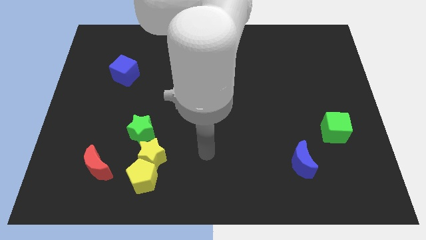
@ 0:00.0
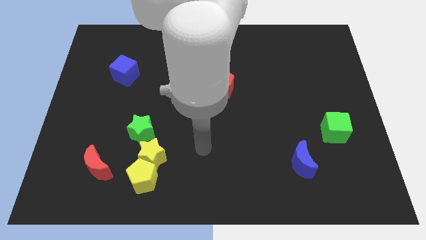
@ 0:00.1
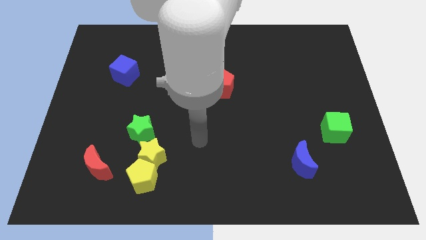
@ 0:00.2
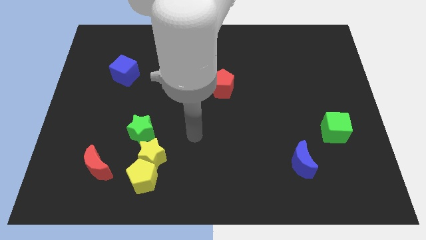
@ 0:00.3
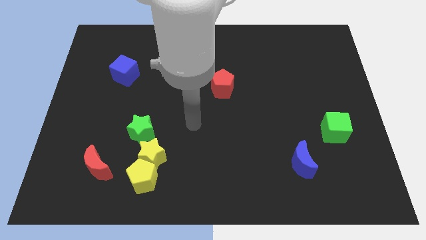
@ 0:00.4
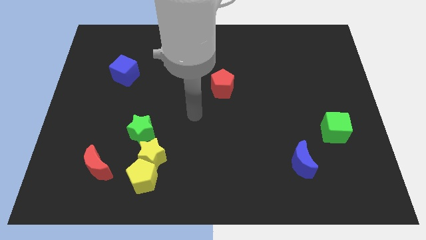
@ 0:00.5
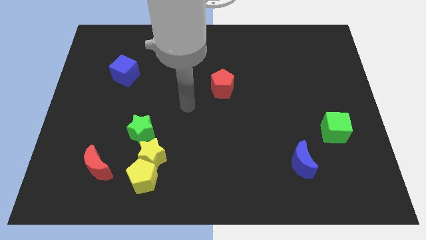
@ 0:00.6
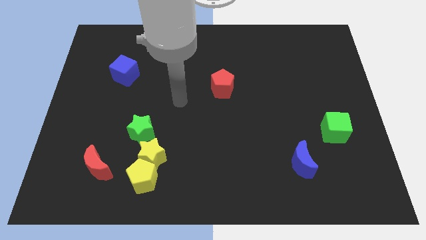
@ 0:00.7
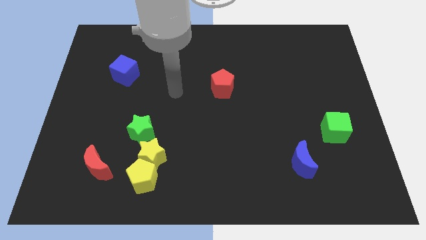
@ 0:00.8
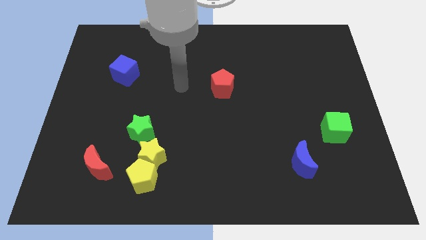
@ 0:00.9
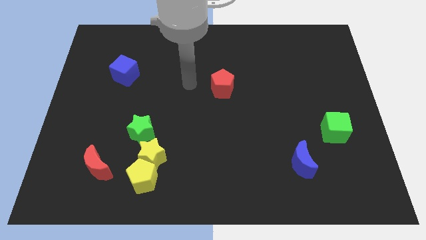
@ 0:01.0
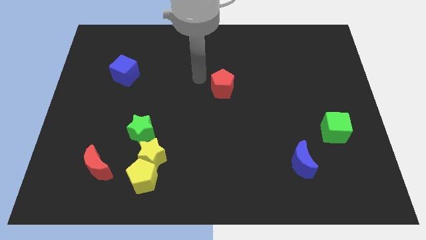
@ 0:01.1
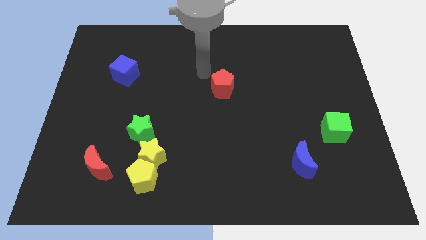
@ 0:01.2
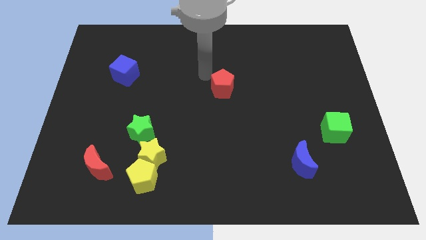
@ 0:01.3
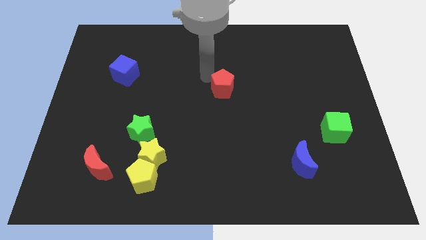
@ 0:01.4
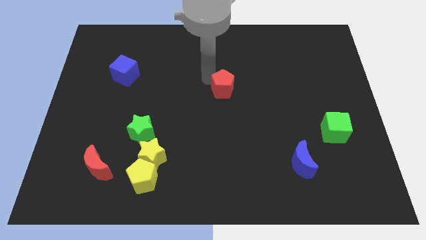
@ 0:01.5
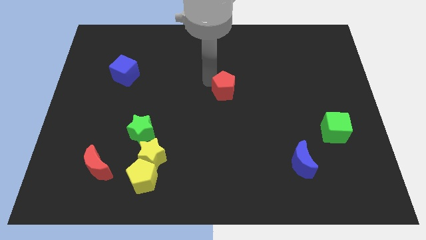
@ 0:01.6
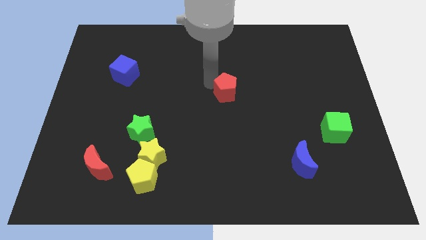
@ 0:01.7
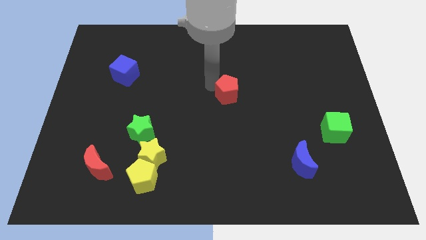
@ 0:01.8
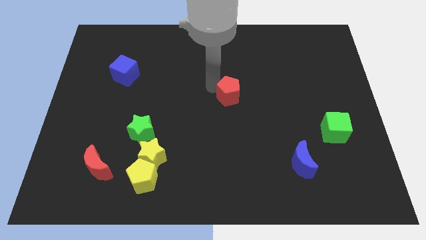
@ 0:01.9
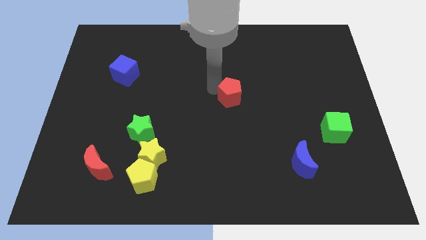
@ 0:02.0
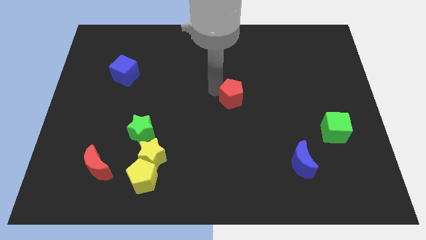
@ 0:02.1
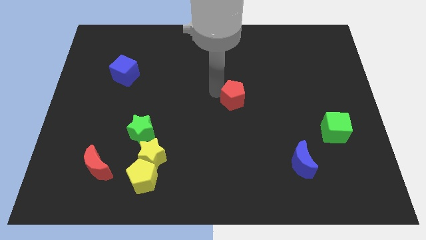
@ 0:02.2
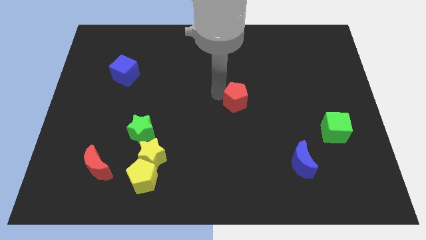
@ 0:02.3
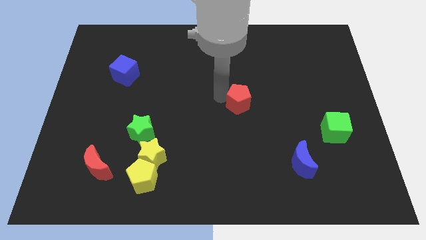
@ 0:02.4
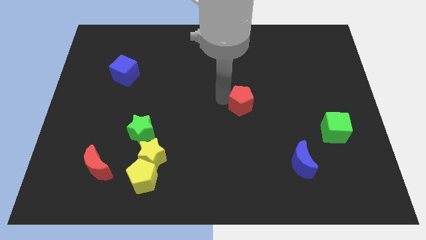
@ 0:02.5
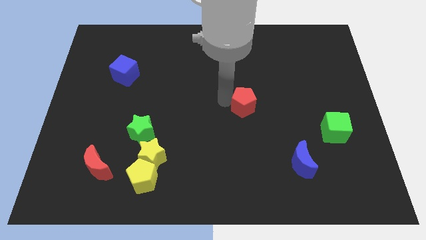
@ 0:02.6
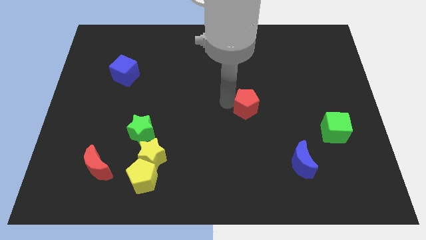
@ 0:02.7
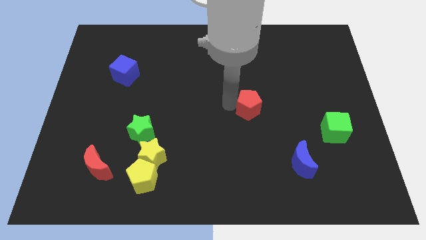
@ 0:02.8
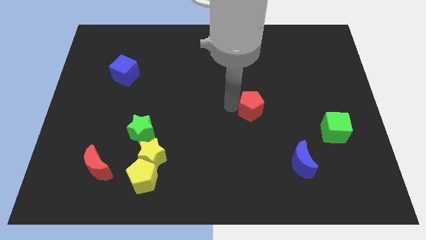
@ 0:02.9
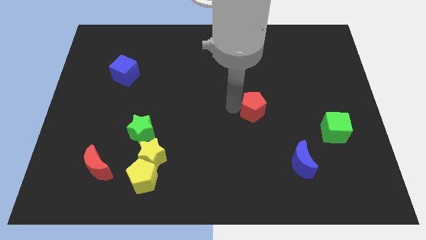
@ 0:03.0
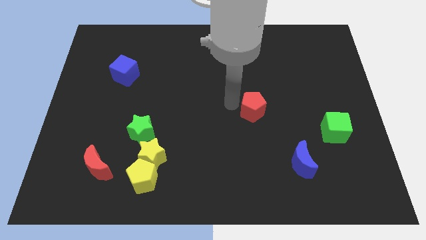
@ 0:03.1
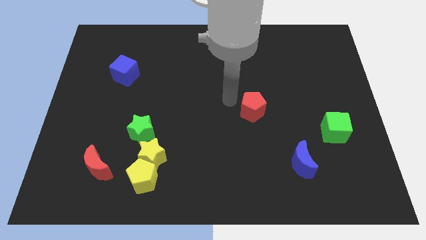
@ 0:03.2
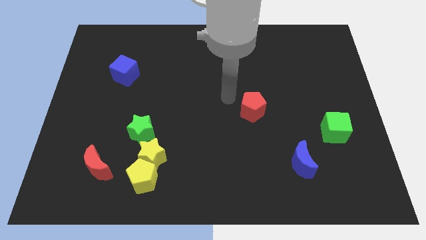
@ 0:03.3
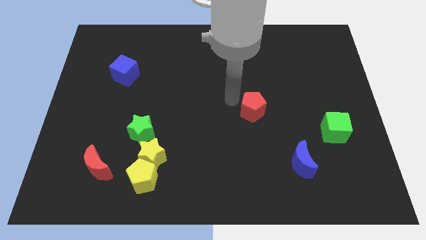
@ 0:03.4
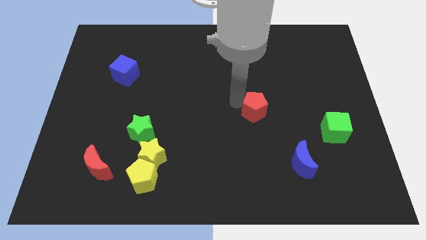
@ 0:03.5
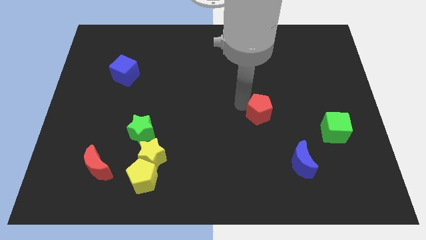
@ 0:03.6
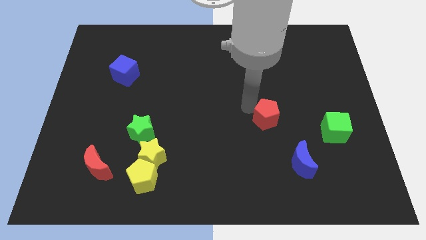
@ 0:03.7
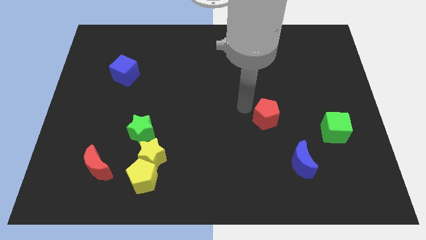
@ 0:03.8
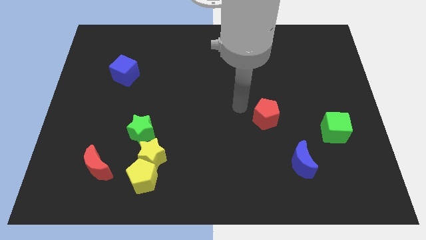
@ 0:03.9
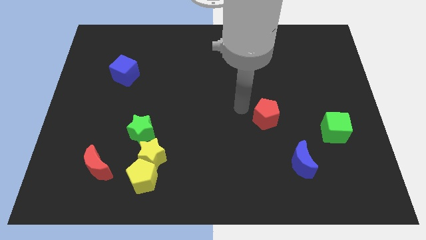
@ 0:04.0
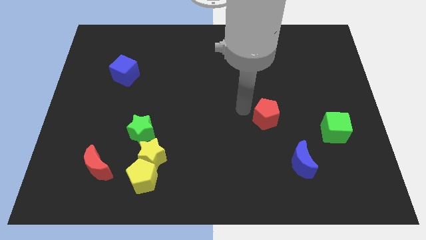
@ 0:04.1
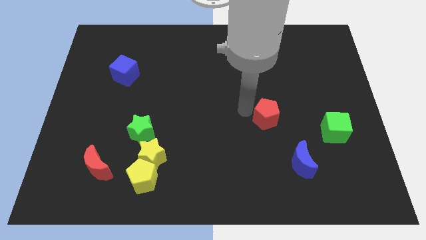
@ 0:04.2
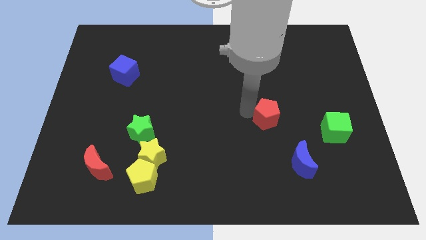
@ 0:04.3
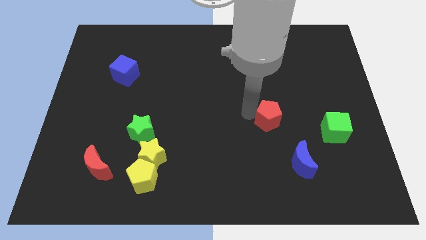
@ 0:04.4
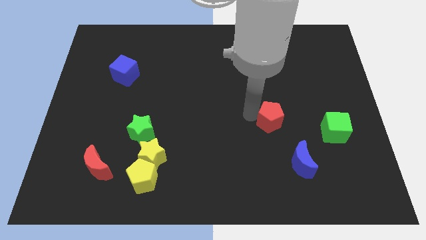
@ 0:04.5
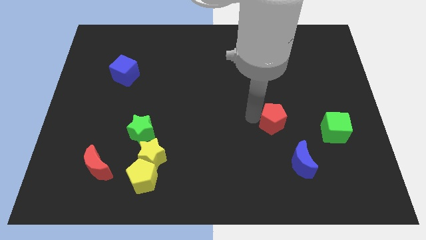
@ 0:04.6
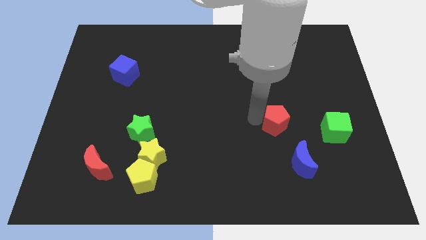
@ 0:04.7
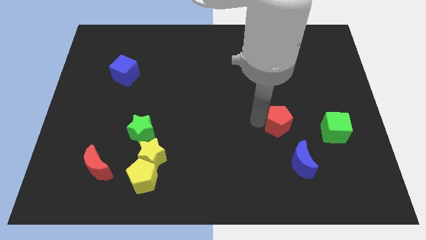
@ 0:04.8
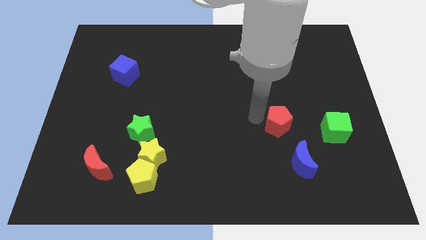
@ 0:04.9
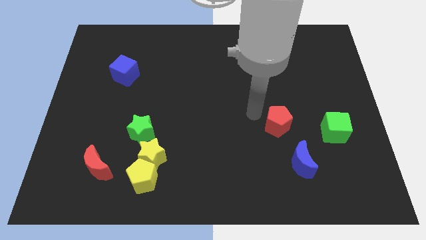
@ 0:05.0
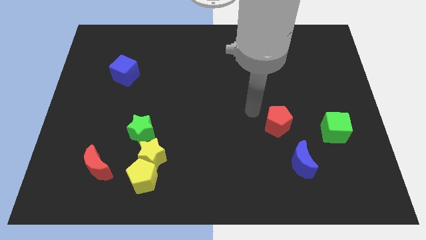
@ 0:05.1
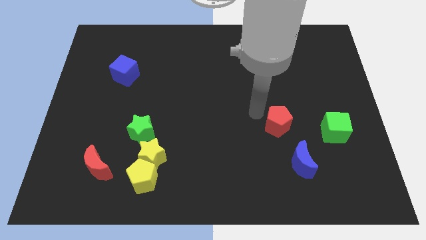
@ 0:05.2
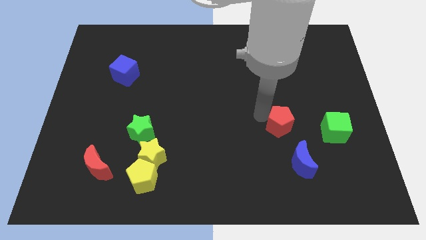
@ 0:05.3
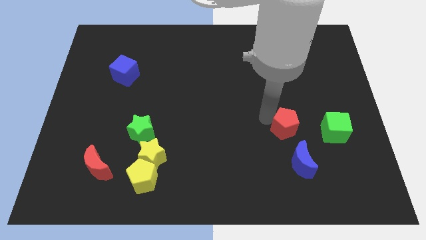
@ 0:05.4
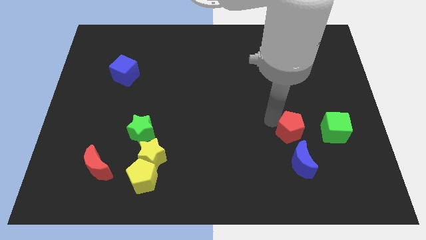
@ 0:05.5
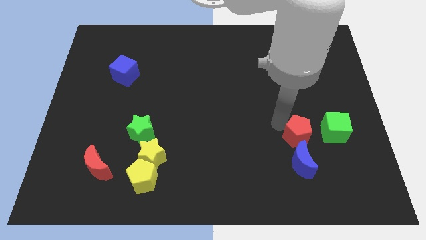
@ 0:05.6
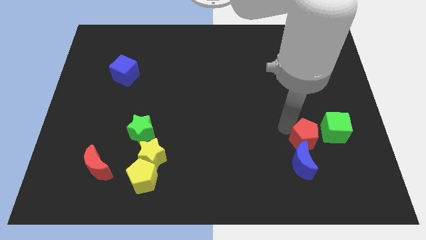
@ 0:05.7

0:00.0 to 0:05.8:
move the red pentagon diagonally down and to the left of the green cube

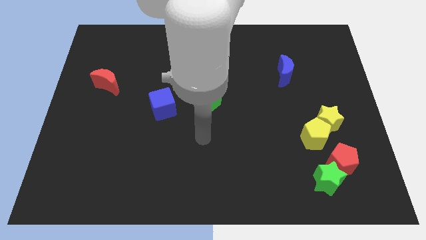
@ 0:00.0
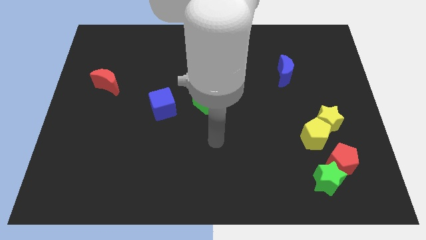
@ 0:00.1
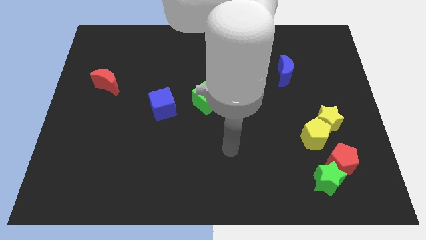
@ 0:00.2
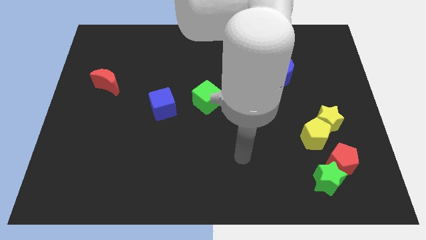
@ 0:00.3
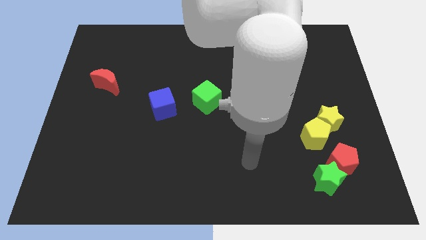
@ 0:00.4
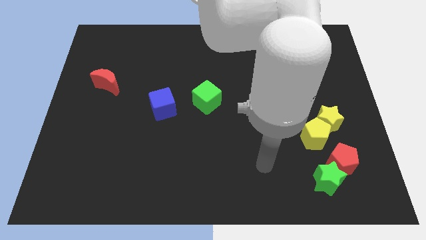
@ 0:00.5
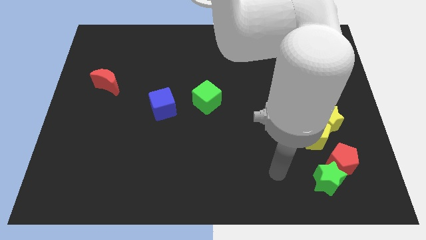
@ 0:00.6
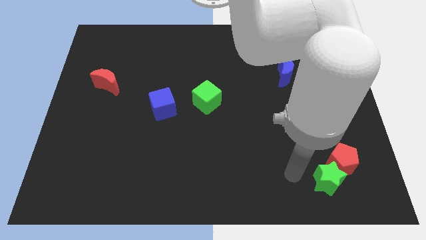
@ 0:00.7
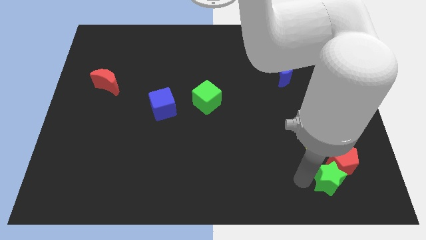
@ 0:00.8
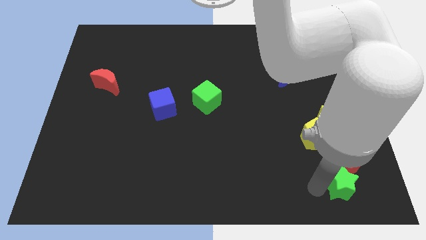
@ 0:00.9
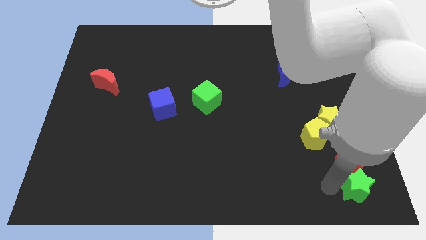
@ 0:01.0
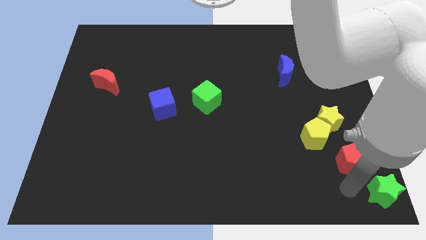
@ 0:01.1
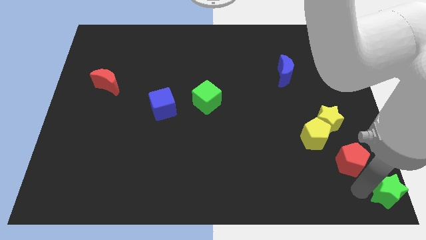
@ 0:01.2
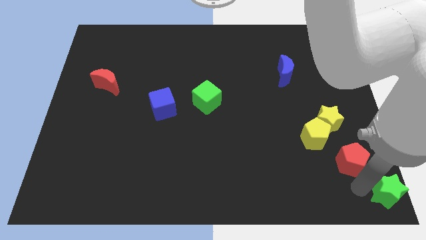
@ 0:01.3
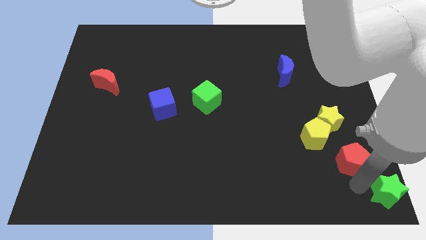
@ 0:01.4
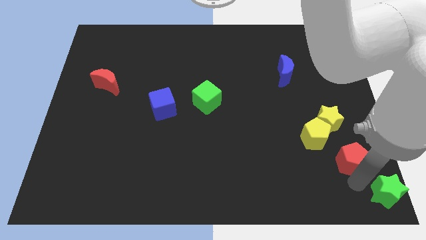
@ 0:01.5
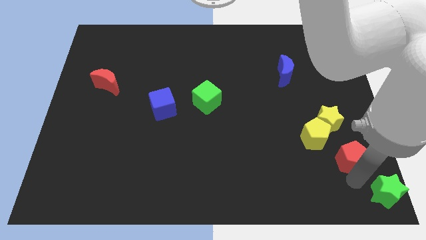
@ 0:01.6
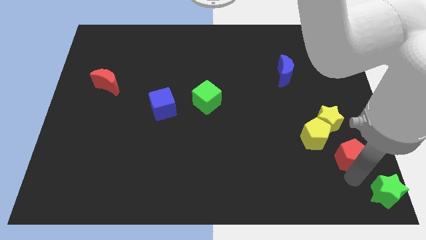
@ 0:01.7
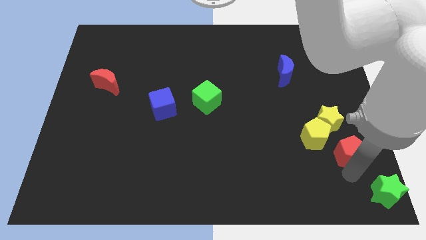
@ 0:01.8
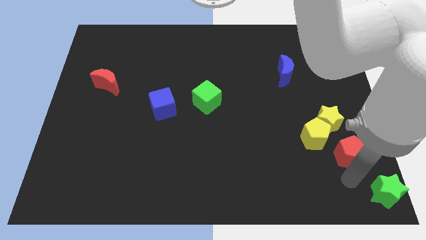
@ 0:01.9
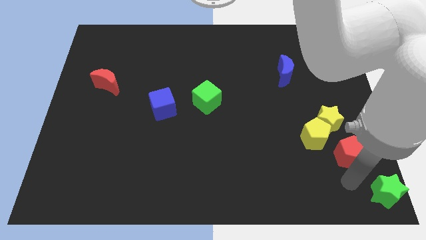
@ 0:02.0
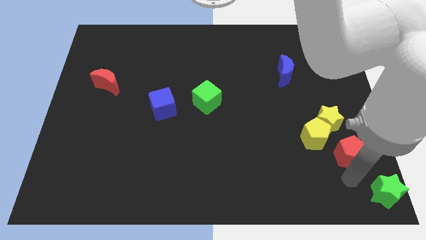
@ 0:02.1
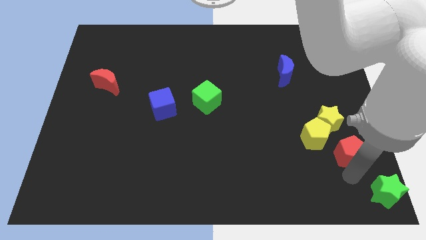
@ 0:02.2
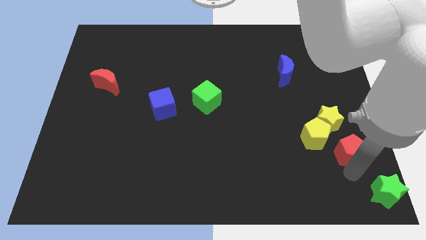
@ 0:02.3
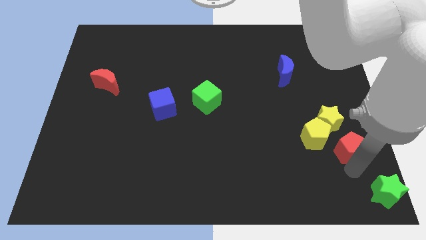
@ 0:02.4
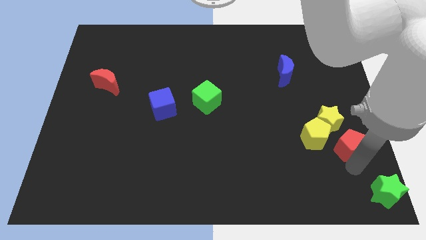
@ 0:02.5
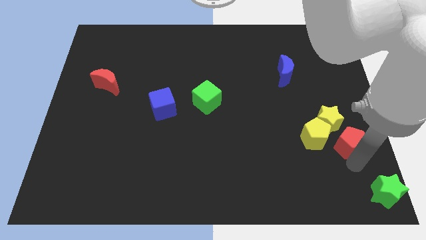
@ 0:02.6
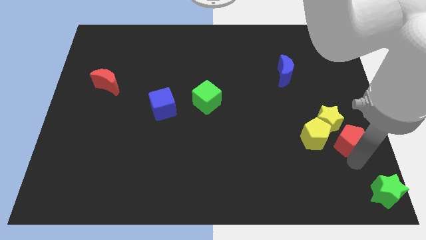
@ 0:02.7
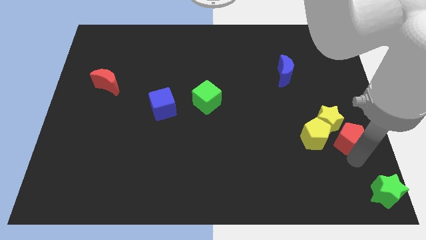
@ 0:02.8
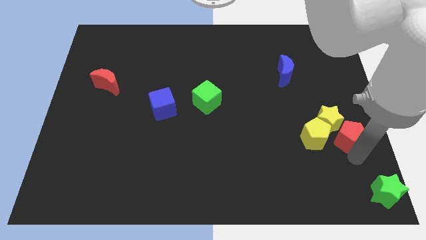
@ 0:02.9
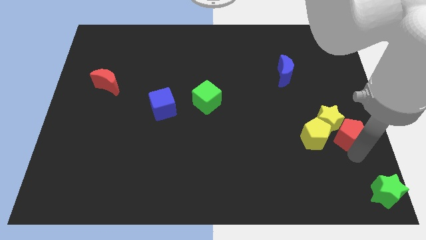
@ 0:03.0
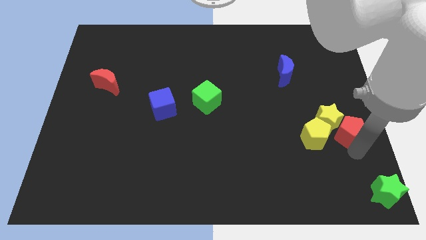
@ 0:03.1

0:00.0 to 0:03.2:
push the red pentagon diagonally up and to the right of the yellow pentagon
